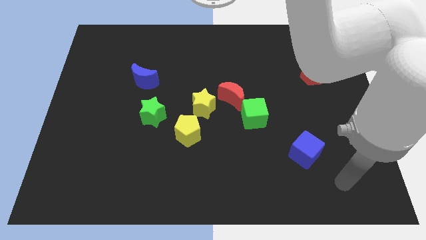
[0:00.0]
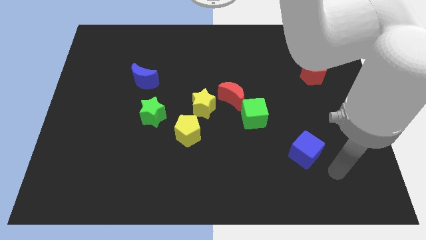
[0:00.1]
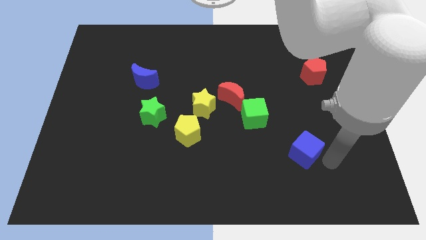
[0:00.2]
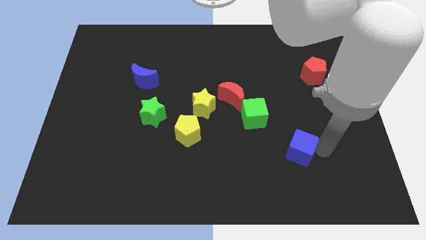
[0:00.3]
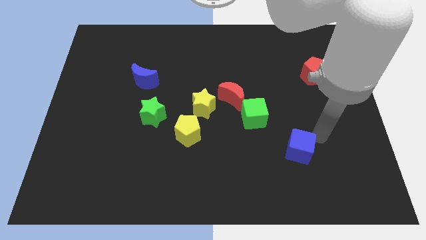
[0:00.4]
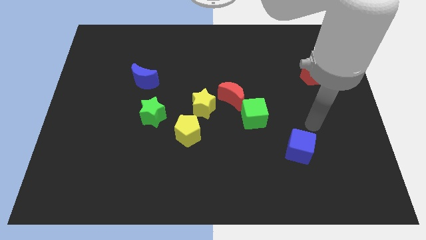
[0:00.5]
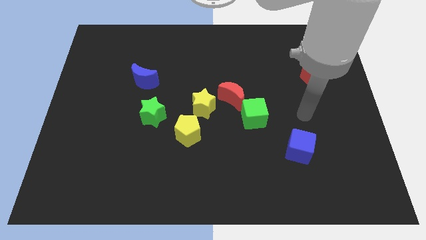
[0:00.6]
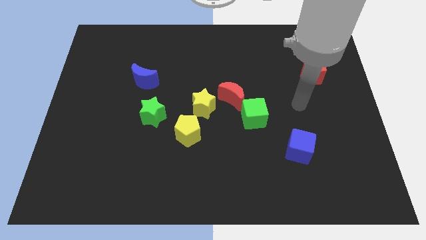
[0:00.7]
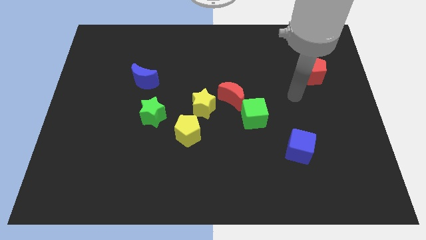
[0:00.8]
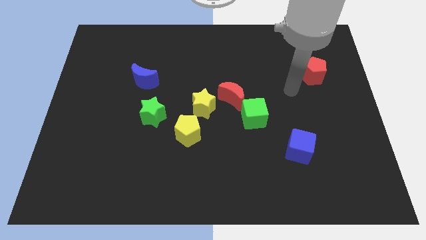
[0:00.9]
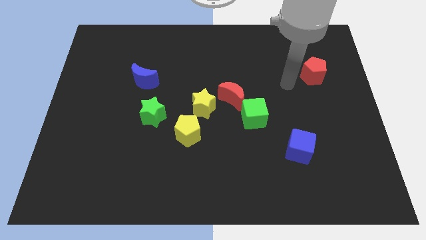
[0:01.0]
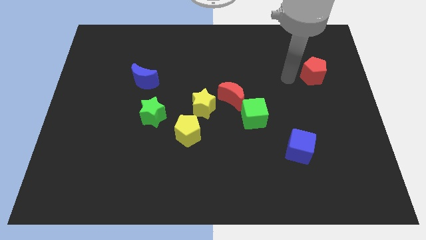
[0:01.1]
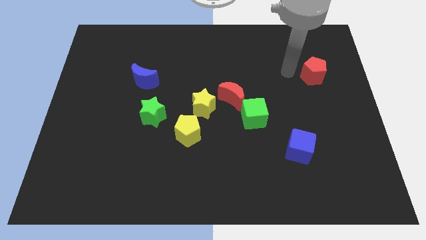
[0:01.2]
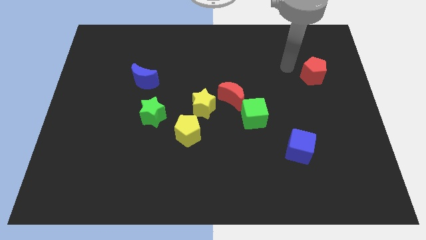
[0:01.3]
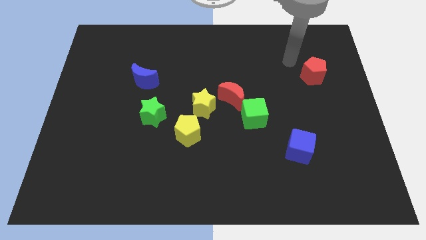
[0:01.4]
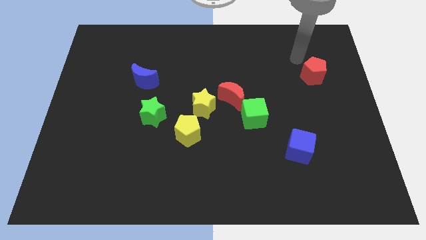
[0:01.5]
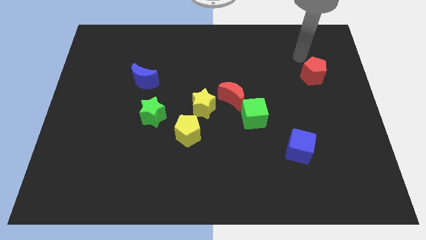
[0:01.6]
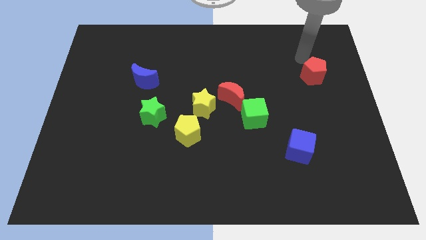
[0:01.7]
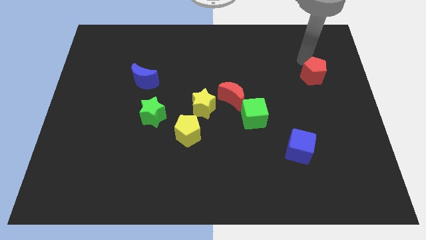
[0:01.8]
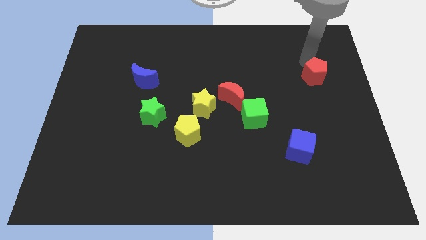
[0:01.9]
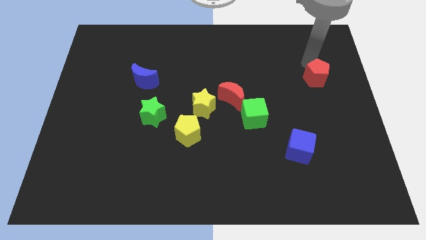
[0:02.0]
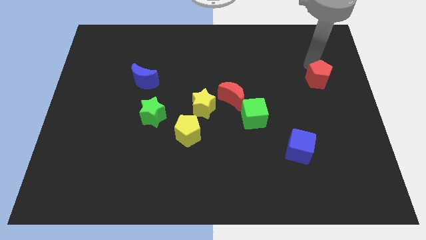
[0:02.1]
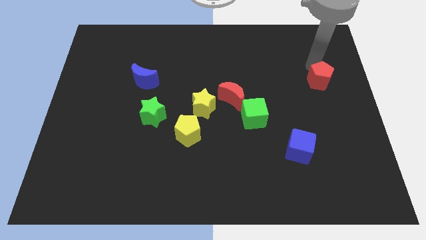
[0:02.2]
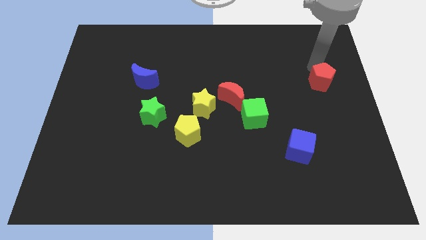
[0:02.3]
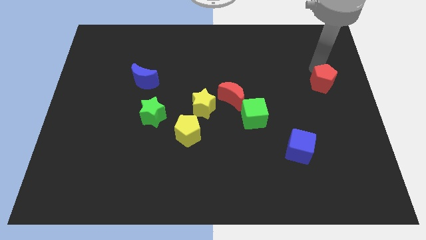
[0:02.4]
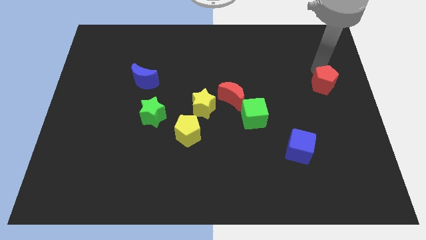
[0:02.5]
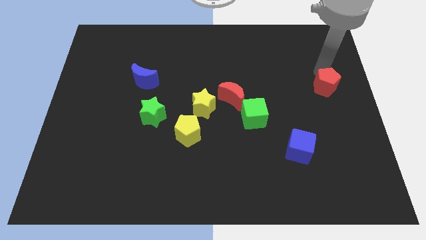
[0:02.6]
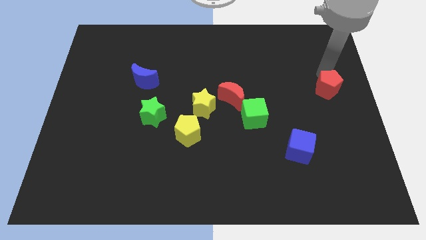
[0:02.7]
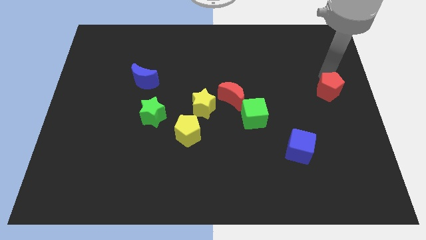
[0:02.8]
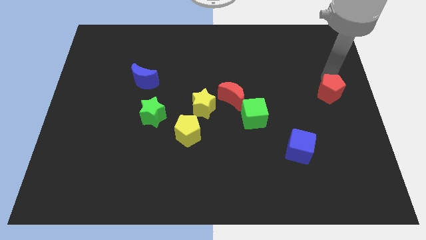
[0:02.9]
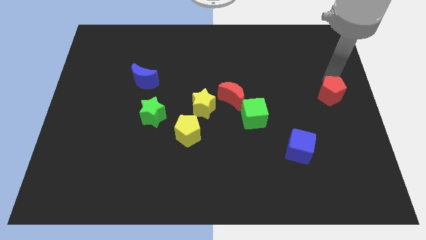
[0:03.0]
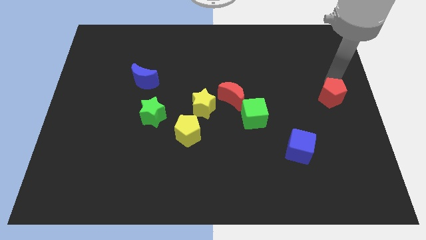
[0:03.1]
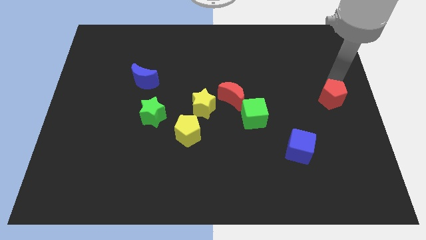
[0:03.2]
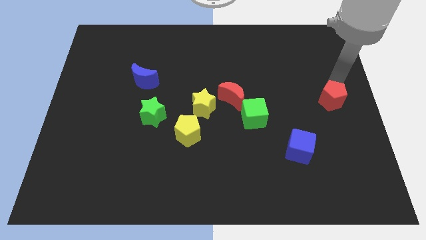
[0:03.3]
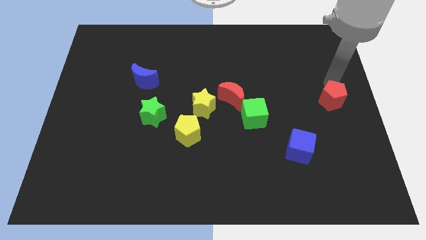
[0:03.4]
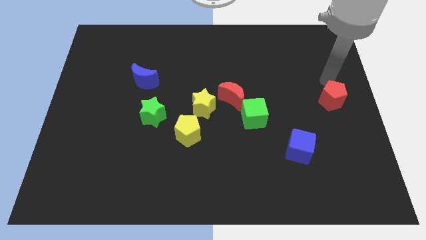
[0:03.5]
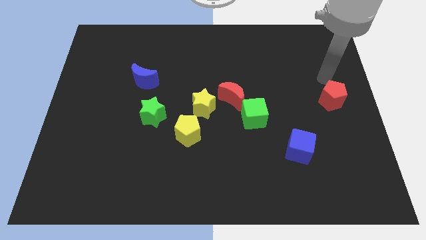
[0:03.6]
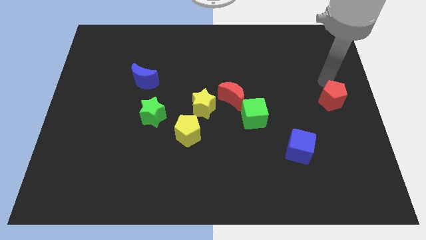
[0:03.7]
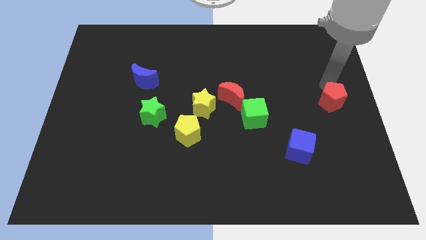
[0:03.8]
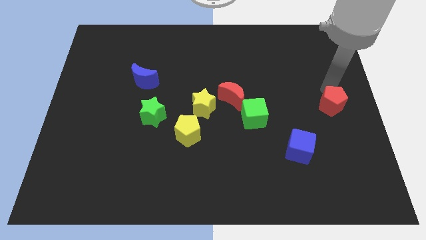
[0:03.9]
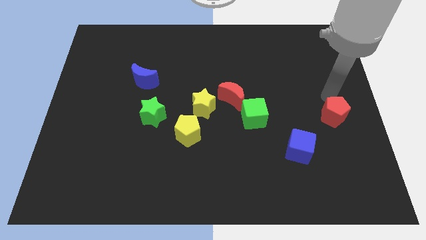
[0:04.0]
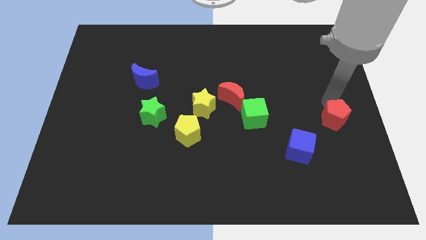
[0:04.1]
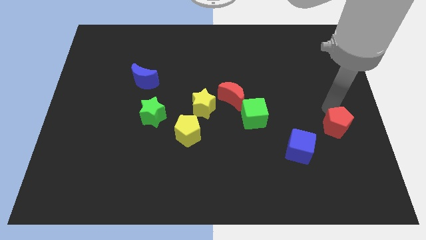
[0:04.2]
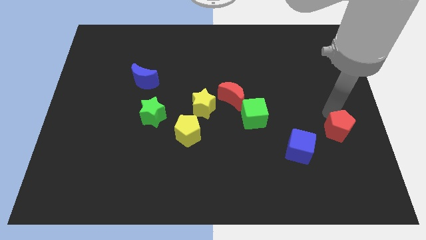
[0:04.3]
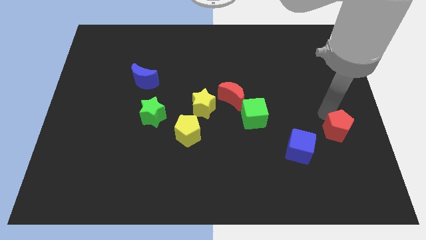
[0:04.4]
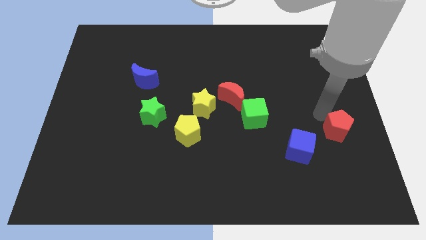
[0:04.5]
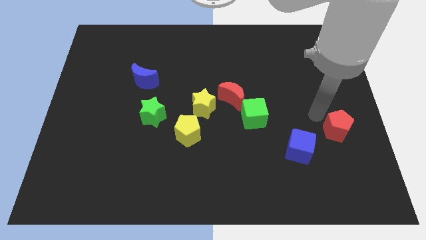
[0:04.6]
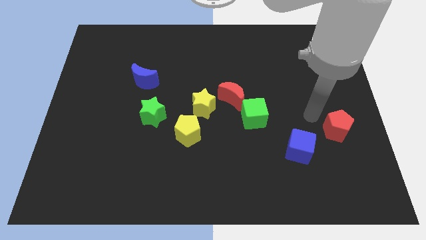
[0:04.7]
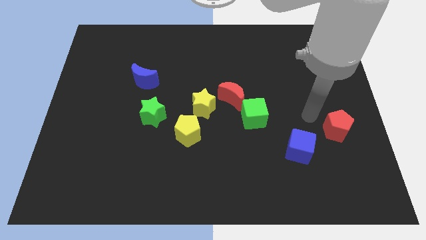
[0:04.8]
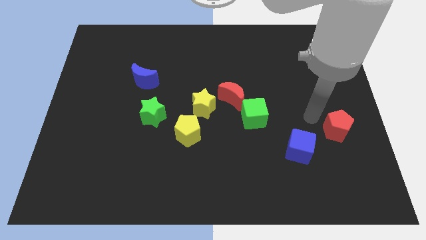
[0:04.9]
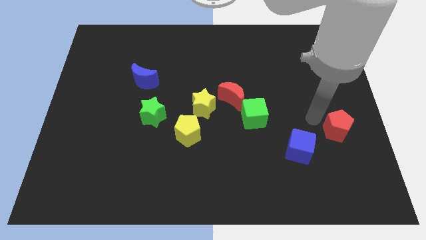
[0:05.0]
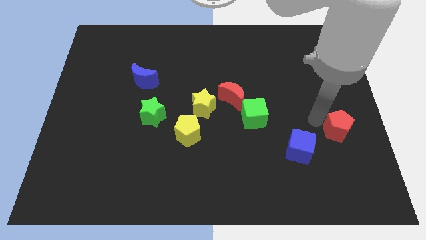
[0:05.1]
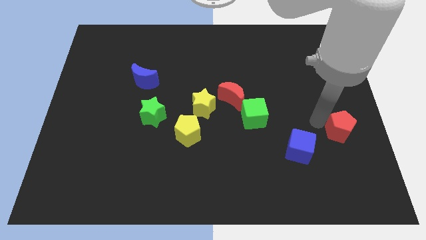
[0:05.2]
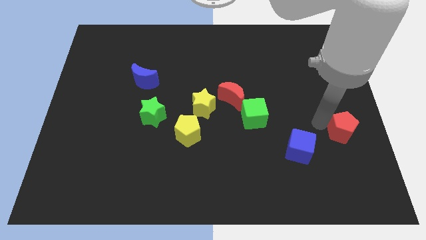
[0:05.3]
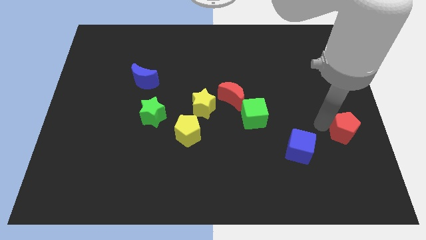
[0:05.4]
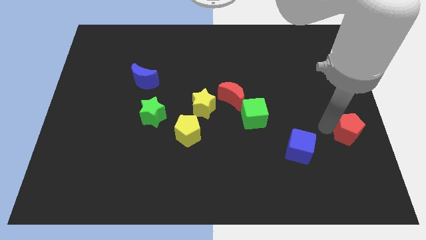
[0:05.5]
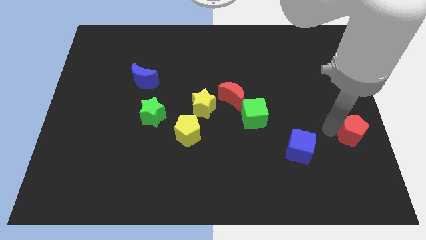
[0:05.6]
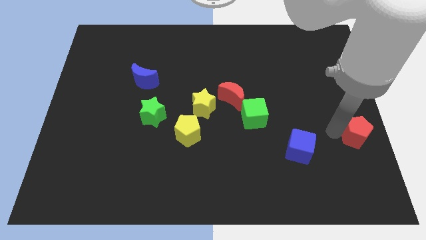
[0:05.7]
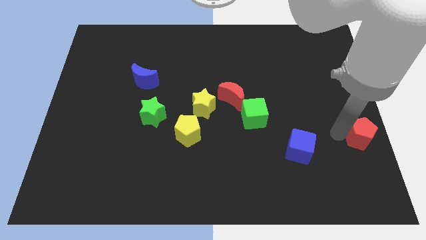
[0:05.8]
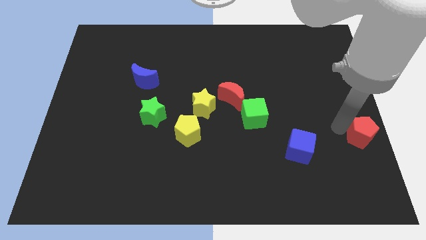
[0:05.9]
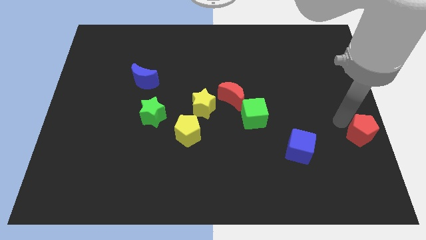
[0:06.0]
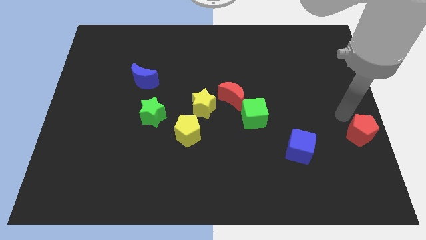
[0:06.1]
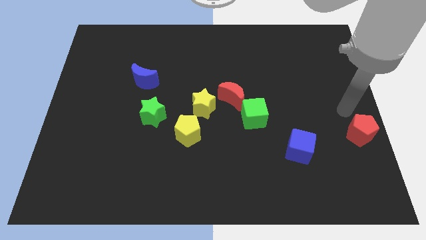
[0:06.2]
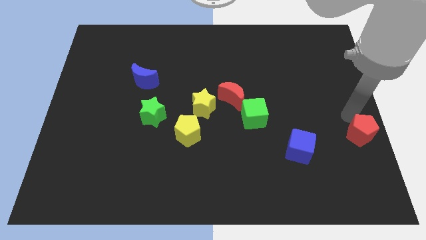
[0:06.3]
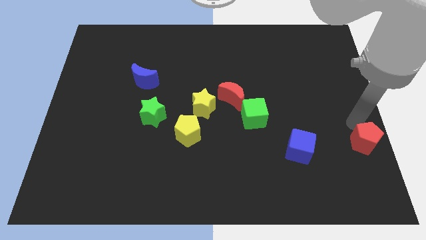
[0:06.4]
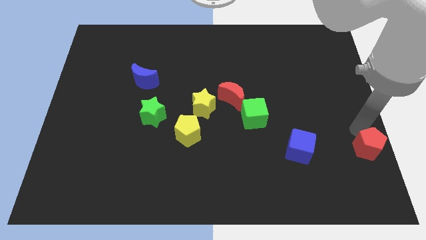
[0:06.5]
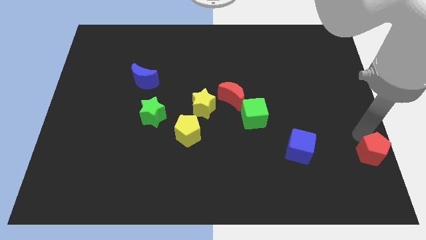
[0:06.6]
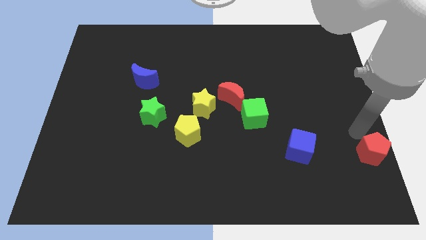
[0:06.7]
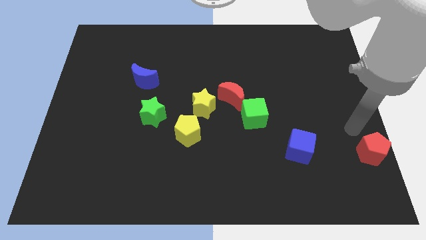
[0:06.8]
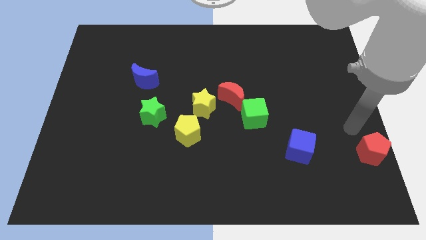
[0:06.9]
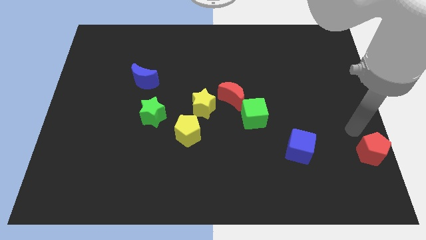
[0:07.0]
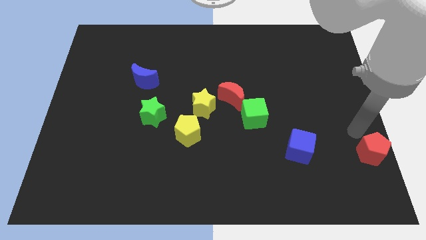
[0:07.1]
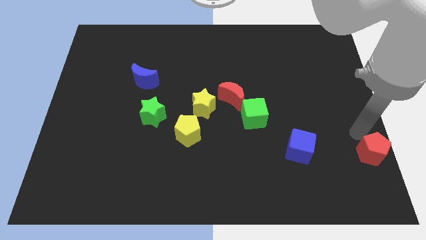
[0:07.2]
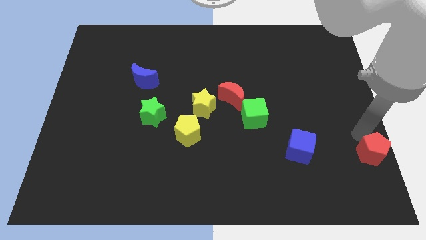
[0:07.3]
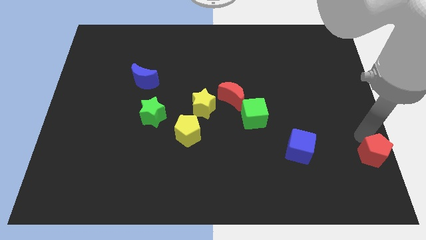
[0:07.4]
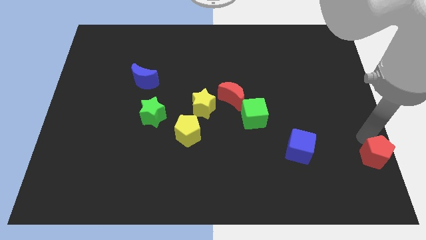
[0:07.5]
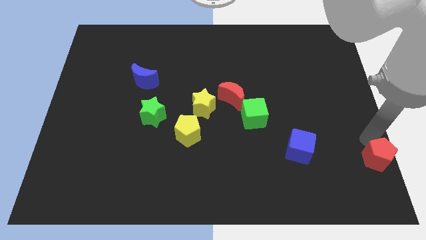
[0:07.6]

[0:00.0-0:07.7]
push the red pentagon to the lower right corner
